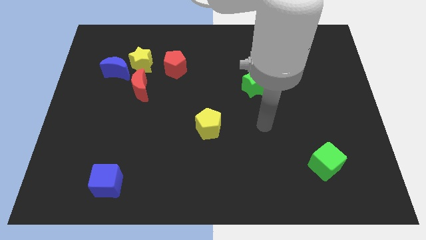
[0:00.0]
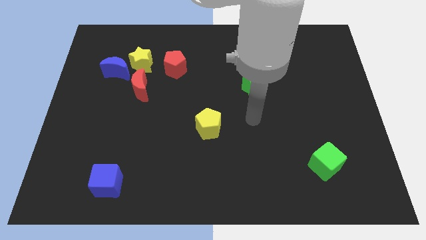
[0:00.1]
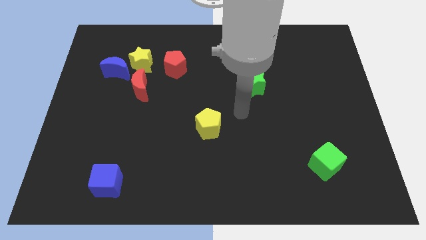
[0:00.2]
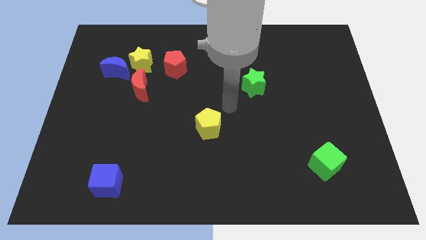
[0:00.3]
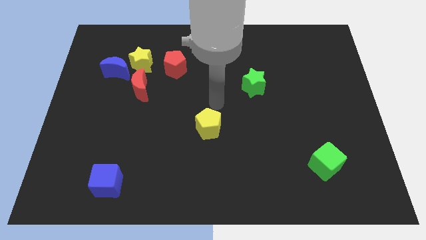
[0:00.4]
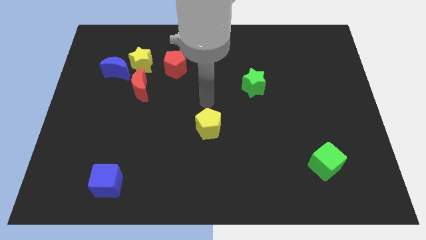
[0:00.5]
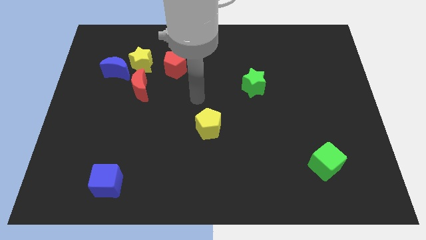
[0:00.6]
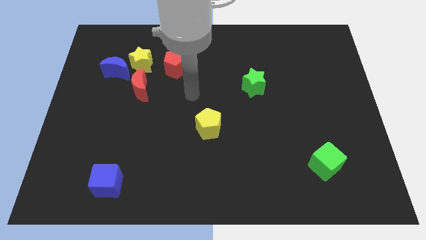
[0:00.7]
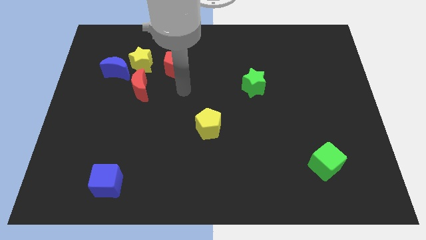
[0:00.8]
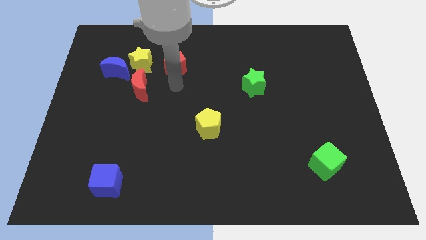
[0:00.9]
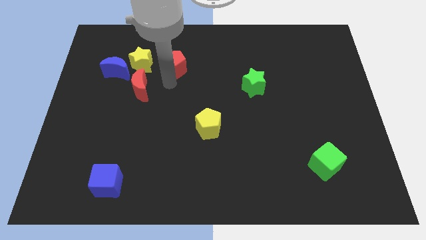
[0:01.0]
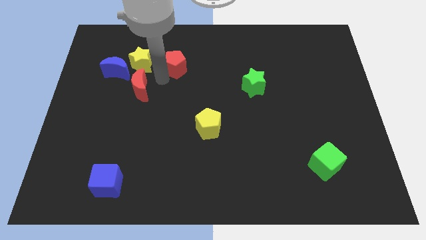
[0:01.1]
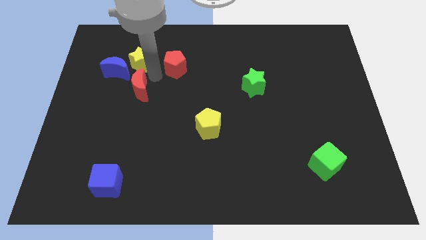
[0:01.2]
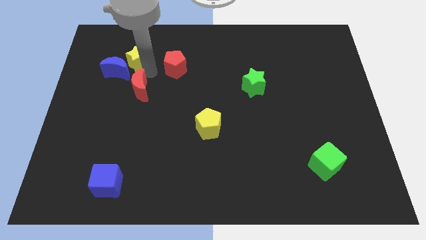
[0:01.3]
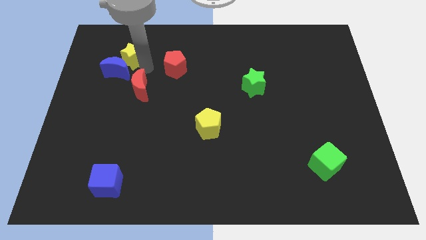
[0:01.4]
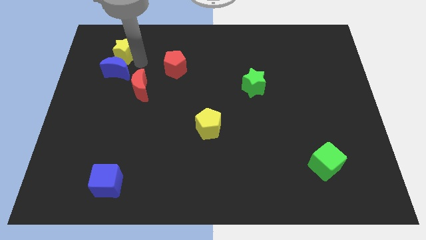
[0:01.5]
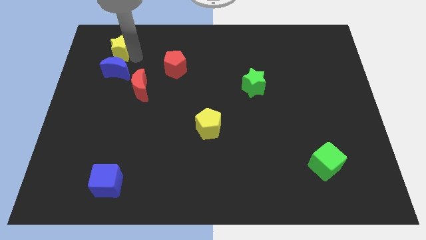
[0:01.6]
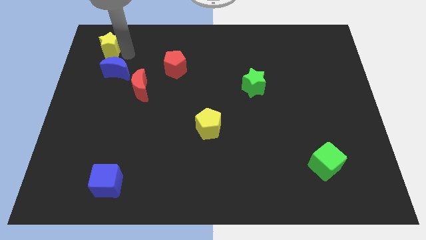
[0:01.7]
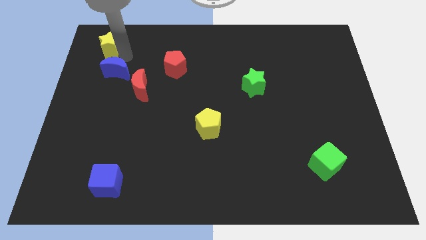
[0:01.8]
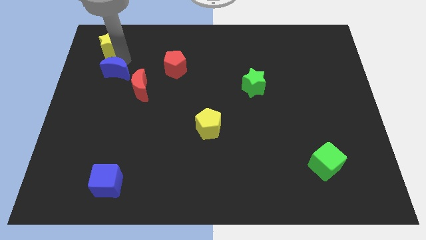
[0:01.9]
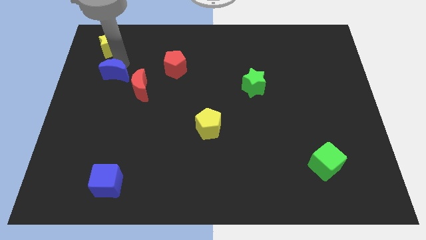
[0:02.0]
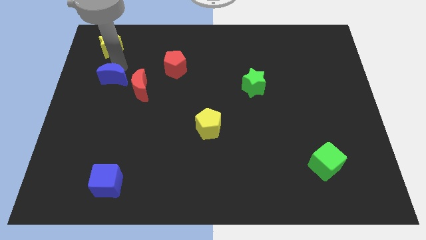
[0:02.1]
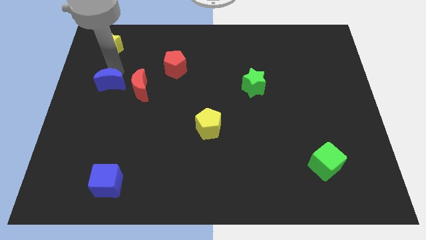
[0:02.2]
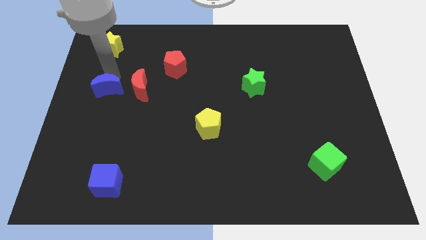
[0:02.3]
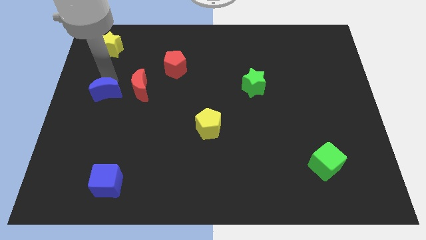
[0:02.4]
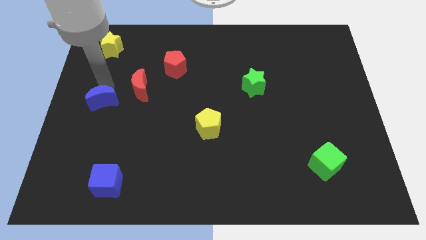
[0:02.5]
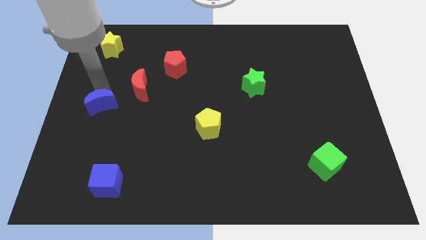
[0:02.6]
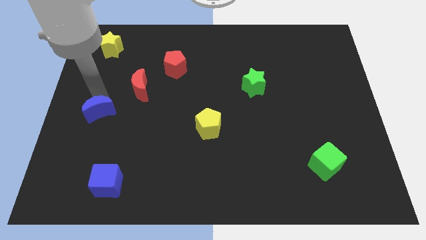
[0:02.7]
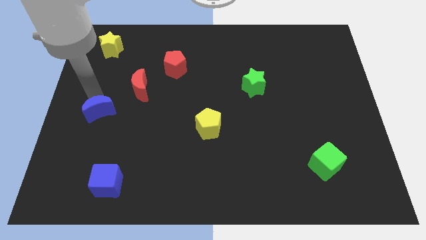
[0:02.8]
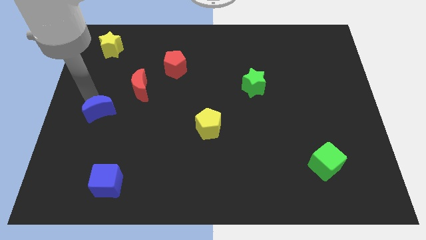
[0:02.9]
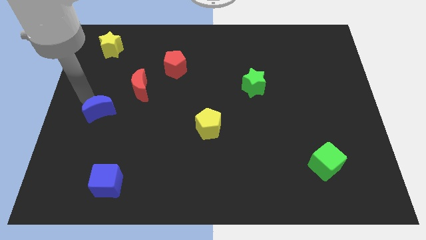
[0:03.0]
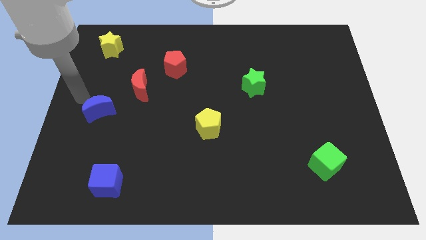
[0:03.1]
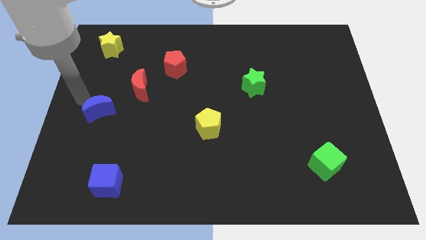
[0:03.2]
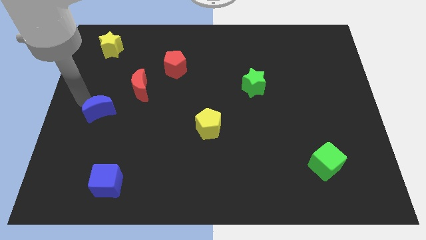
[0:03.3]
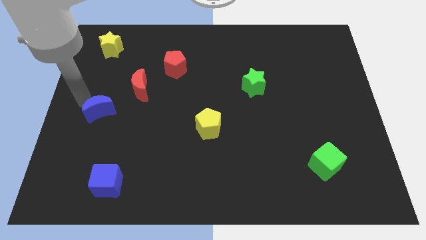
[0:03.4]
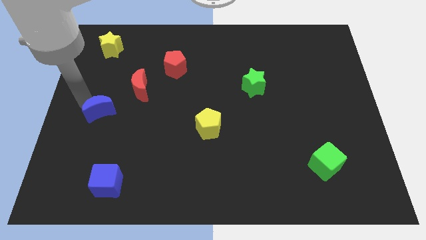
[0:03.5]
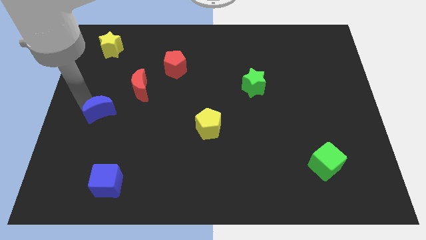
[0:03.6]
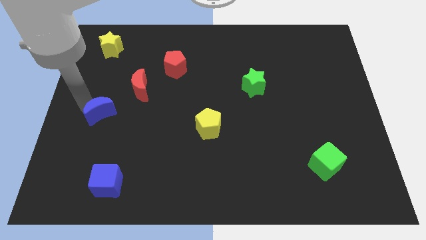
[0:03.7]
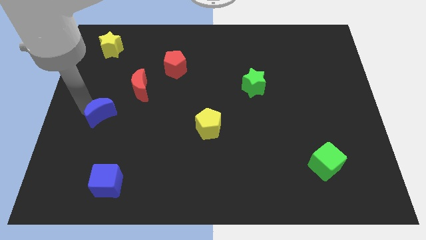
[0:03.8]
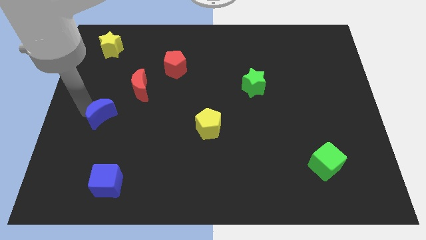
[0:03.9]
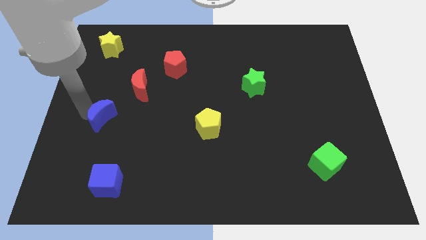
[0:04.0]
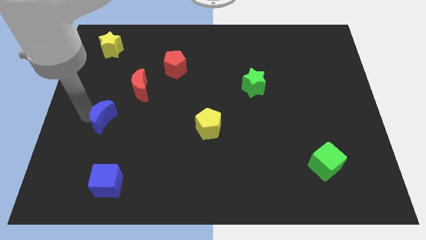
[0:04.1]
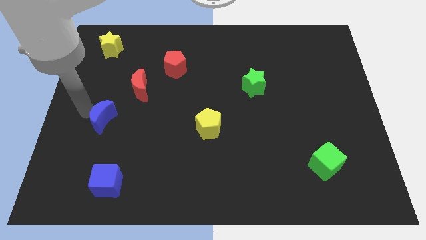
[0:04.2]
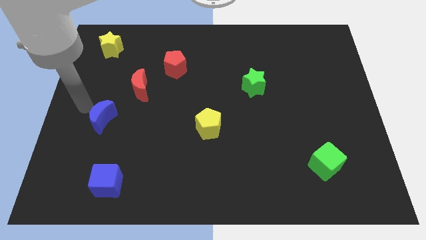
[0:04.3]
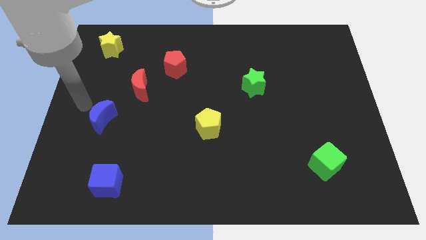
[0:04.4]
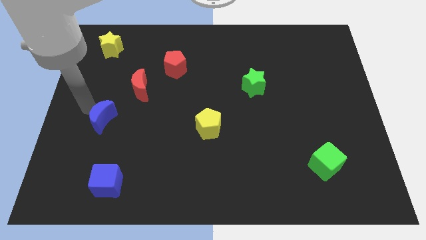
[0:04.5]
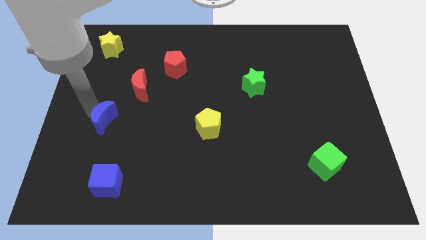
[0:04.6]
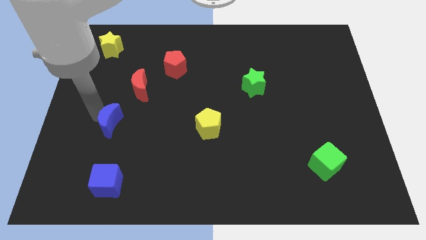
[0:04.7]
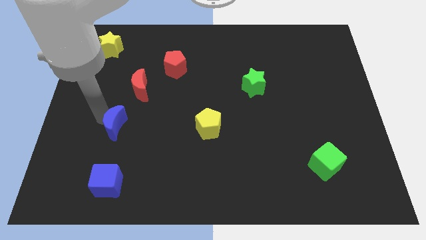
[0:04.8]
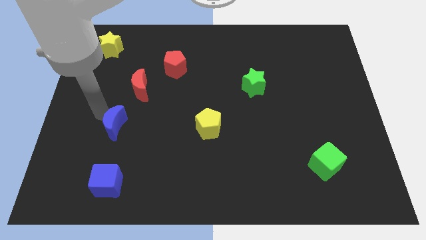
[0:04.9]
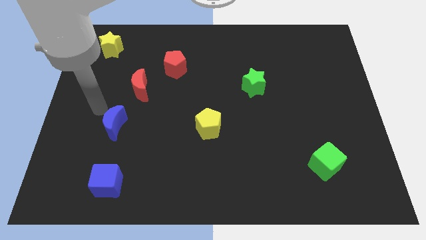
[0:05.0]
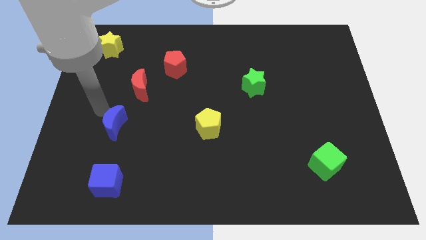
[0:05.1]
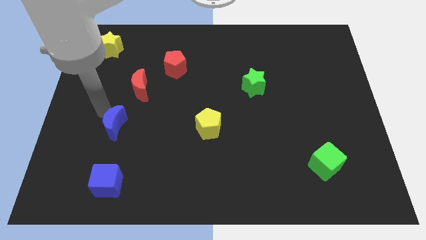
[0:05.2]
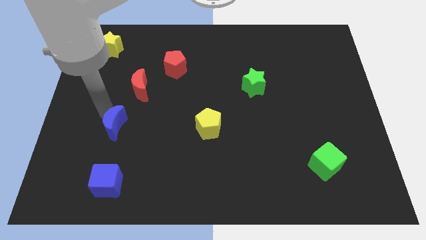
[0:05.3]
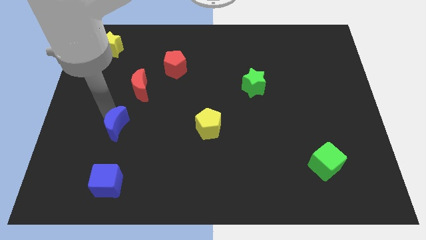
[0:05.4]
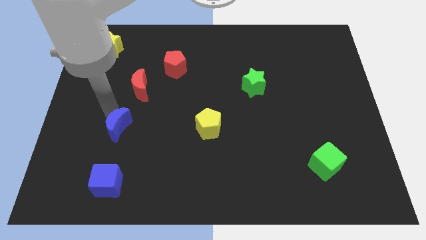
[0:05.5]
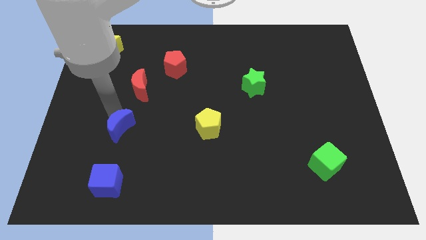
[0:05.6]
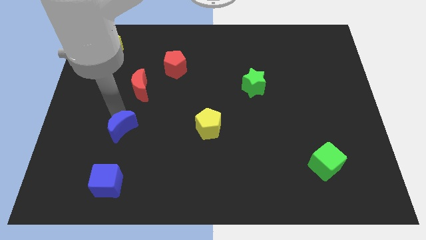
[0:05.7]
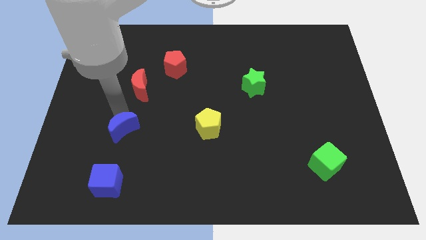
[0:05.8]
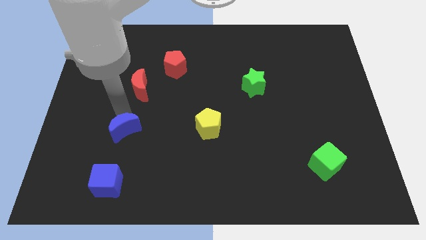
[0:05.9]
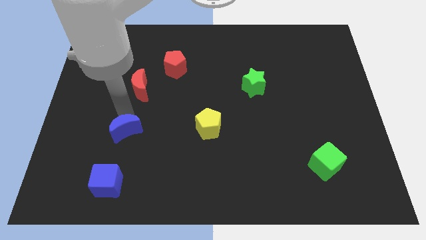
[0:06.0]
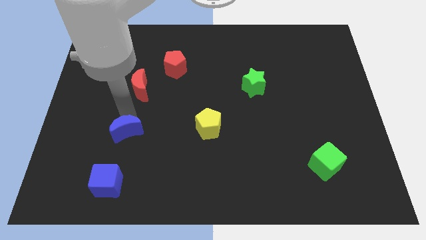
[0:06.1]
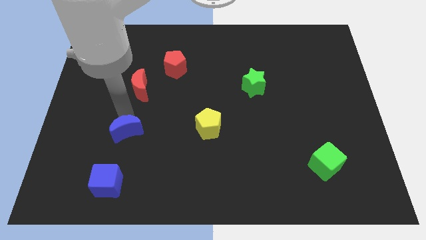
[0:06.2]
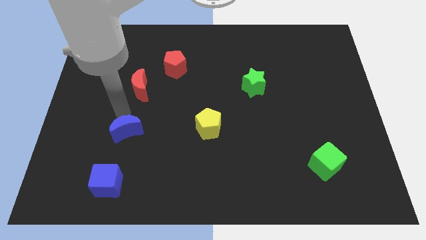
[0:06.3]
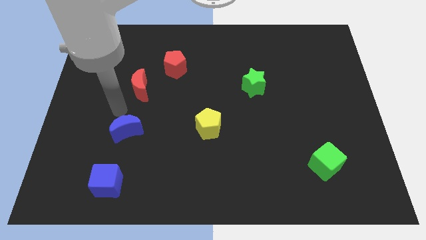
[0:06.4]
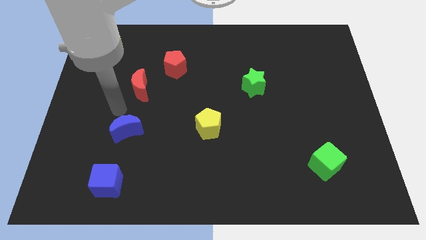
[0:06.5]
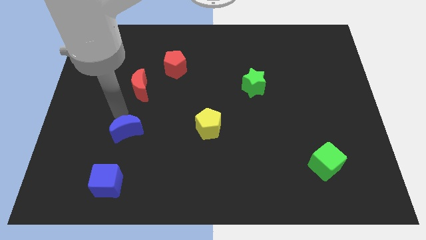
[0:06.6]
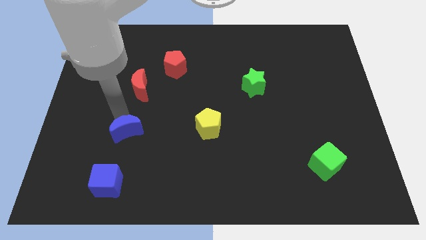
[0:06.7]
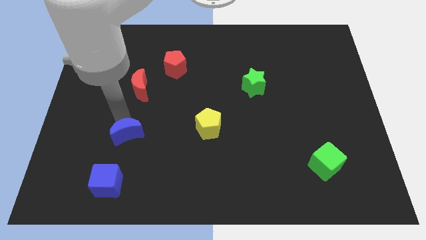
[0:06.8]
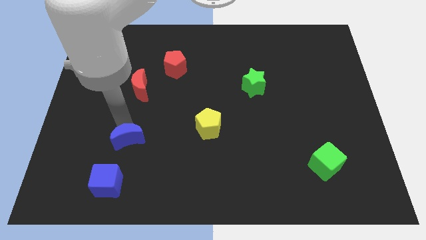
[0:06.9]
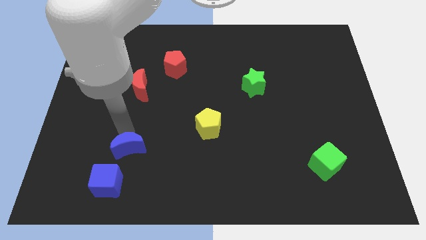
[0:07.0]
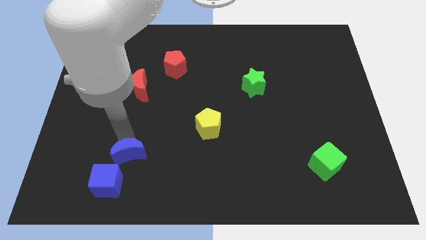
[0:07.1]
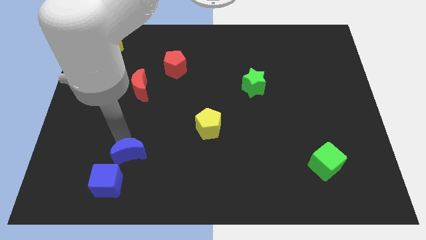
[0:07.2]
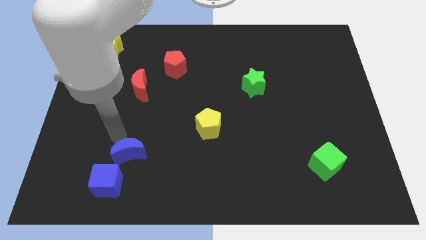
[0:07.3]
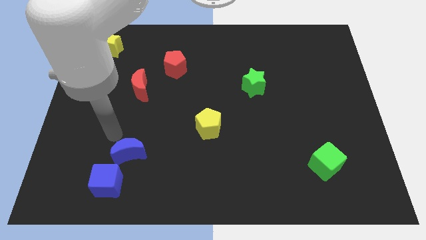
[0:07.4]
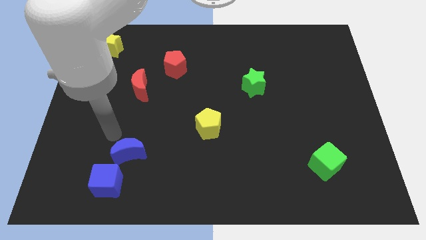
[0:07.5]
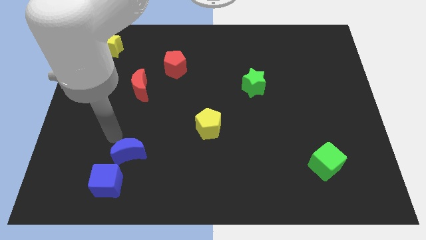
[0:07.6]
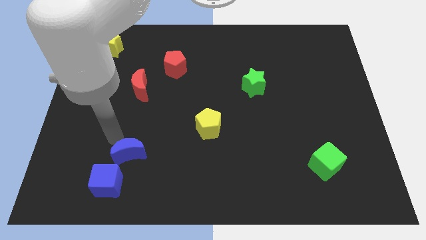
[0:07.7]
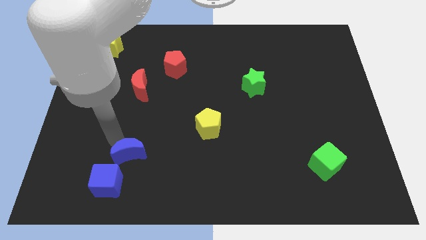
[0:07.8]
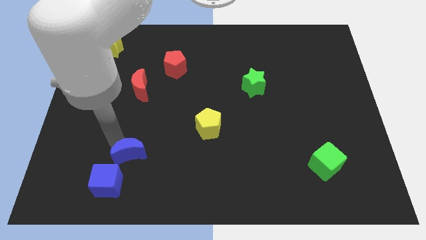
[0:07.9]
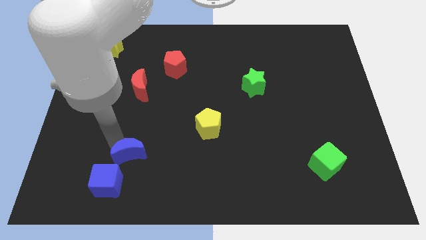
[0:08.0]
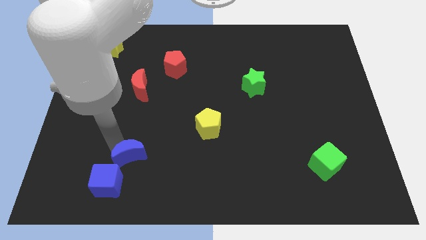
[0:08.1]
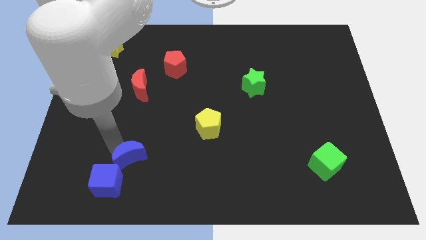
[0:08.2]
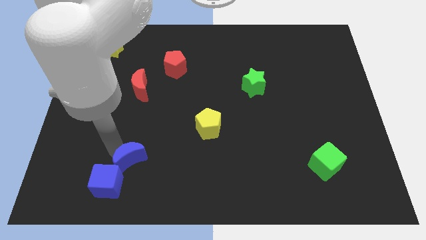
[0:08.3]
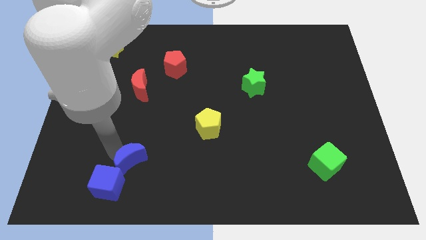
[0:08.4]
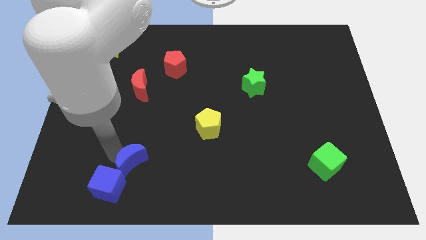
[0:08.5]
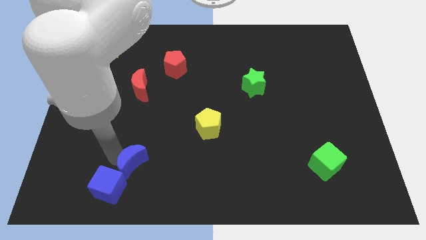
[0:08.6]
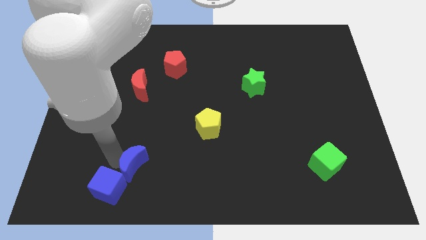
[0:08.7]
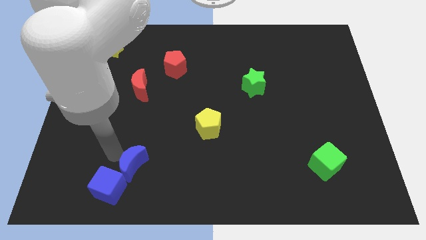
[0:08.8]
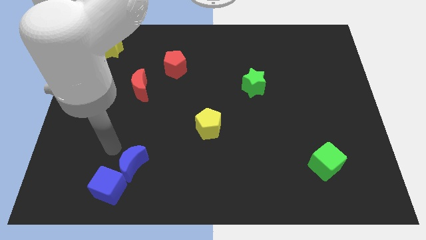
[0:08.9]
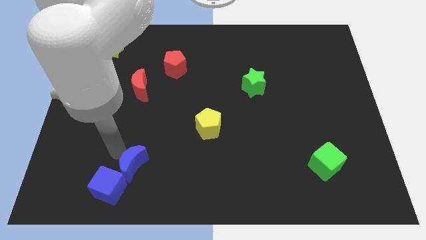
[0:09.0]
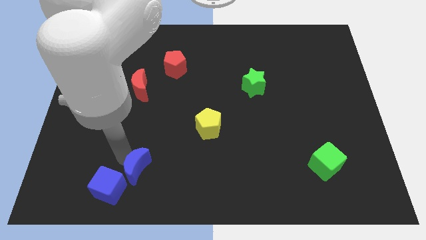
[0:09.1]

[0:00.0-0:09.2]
slide the blue moon to the right side of the blue cube
